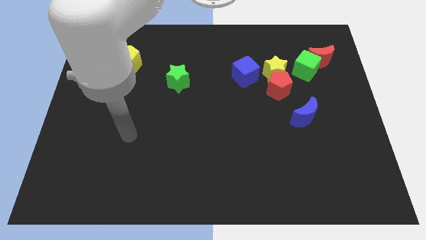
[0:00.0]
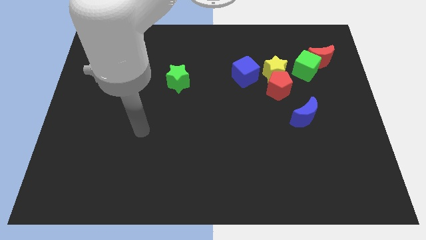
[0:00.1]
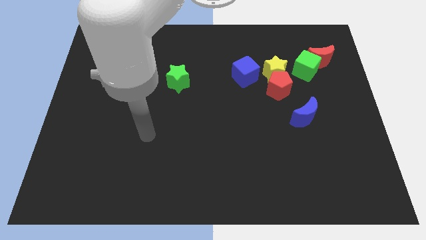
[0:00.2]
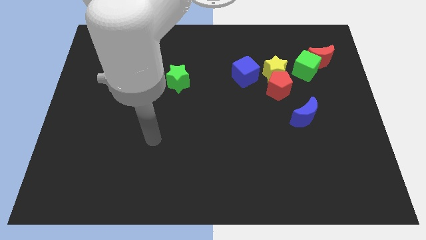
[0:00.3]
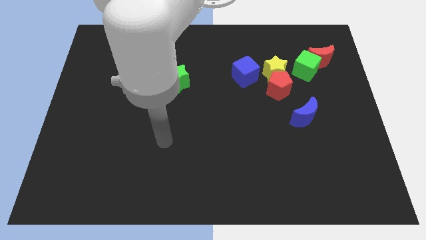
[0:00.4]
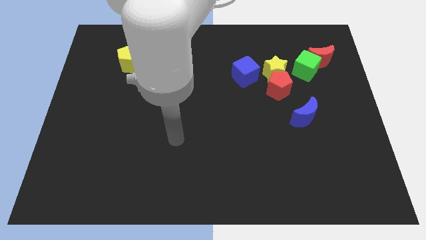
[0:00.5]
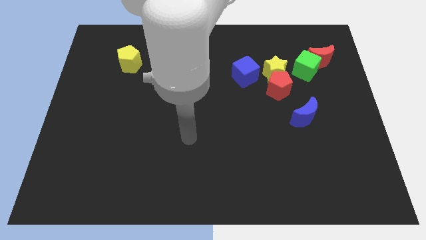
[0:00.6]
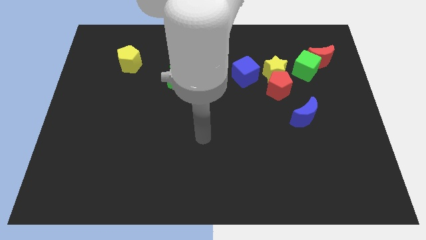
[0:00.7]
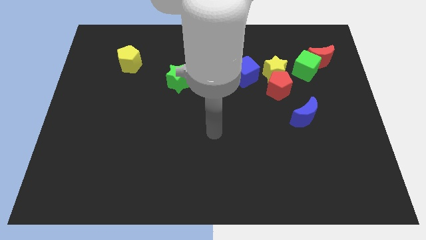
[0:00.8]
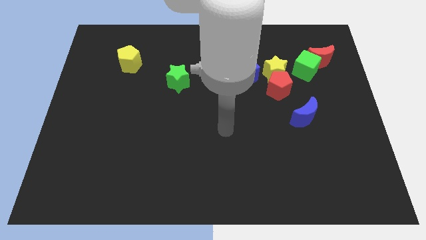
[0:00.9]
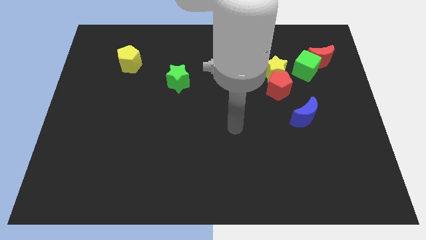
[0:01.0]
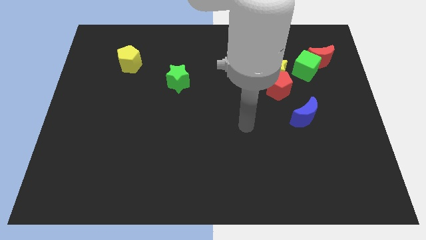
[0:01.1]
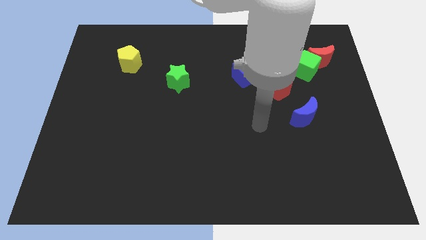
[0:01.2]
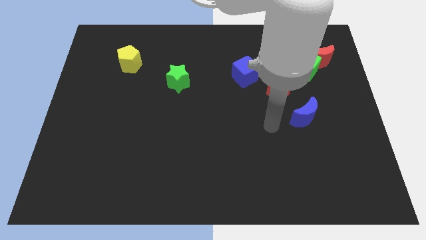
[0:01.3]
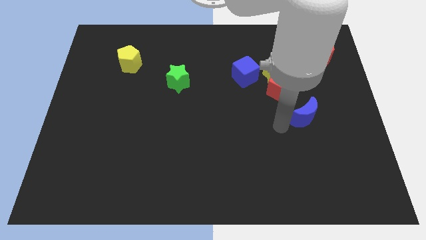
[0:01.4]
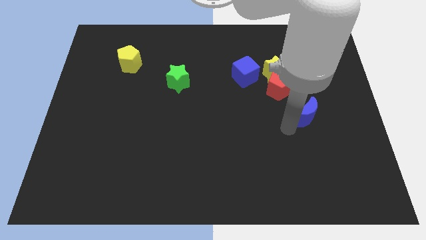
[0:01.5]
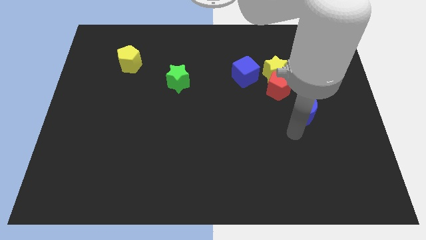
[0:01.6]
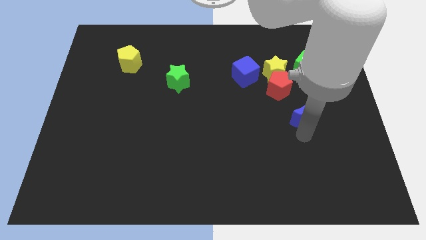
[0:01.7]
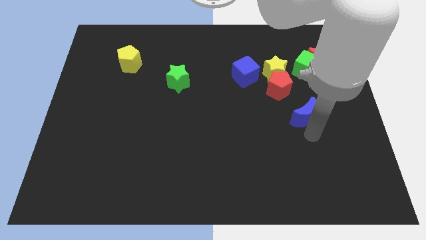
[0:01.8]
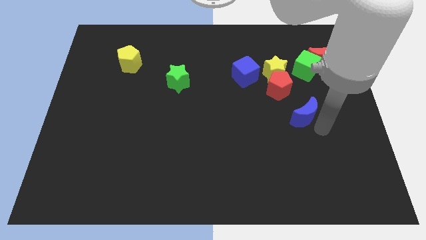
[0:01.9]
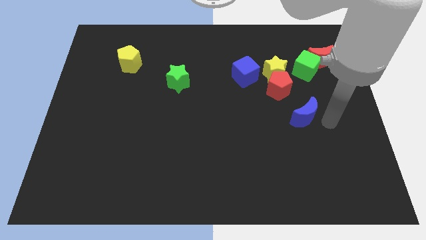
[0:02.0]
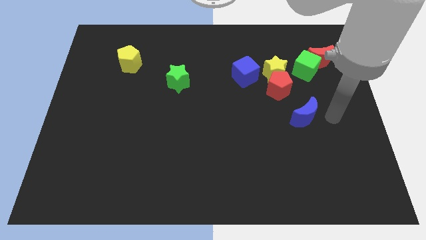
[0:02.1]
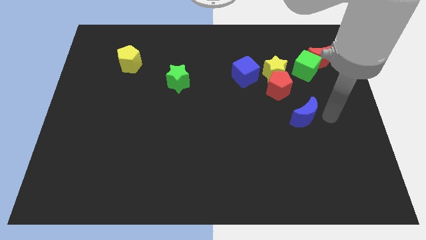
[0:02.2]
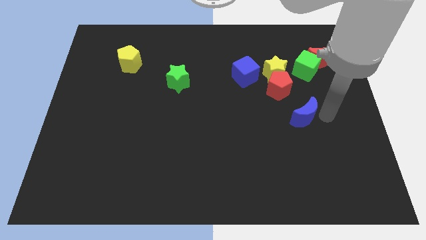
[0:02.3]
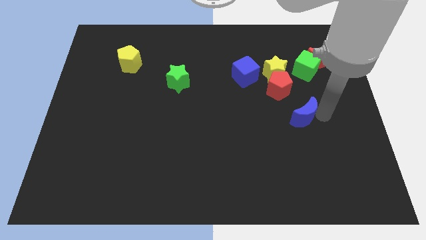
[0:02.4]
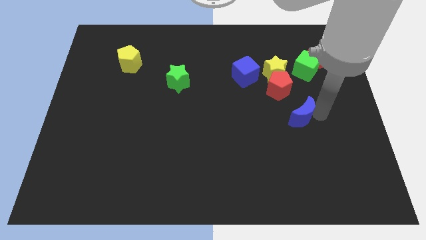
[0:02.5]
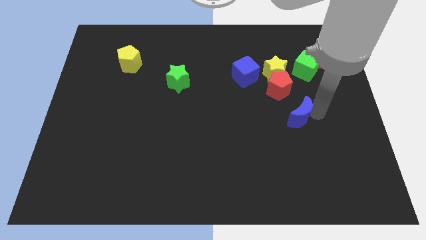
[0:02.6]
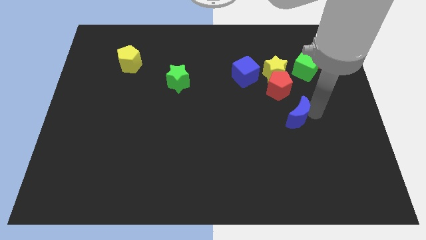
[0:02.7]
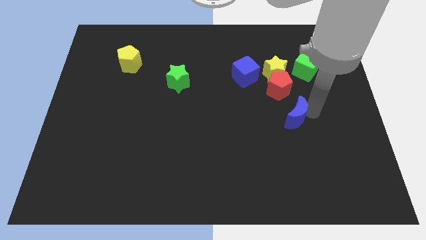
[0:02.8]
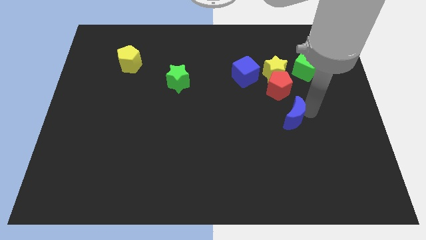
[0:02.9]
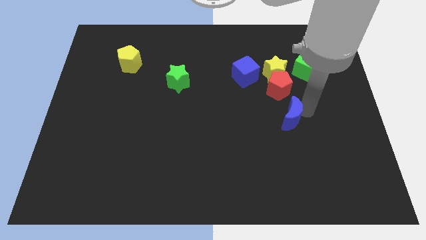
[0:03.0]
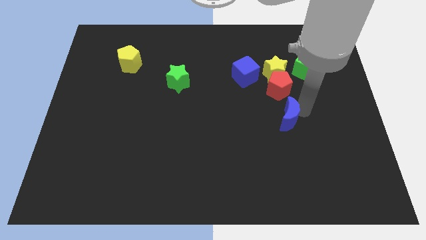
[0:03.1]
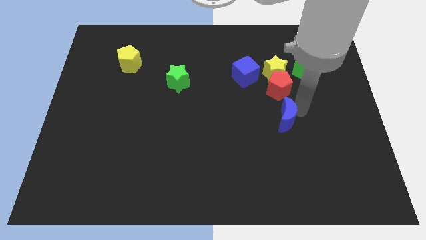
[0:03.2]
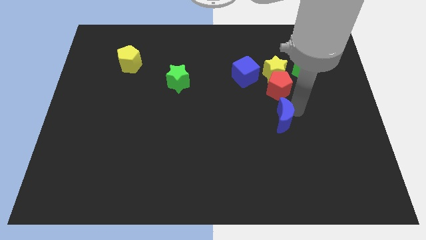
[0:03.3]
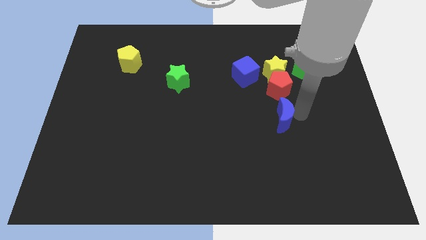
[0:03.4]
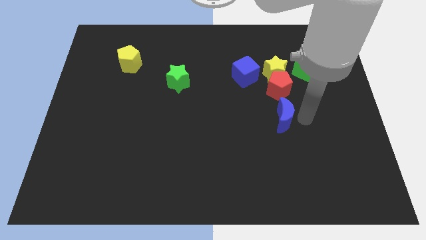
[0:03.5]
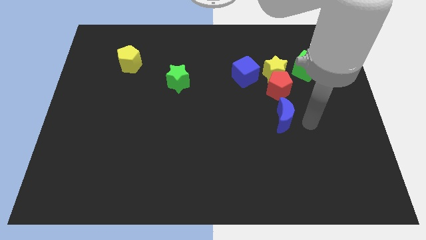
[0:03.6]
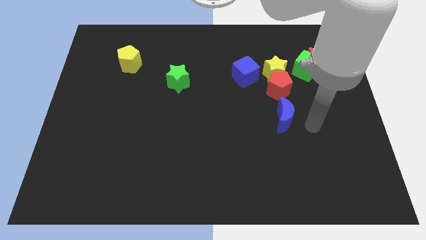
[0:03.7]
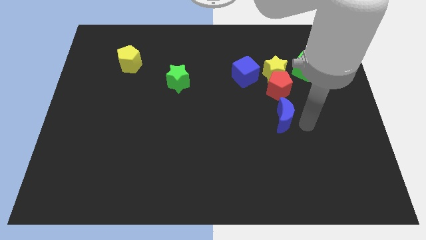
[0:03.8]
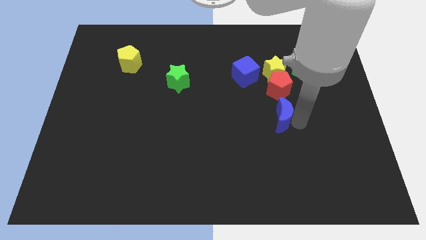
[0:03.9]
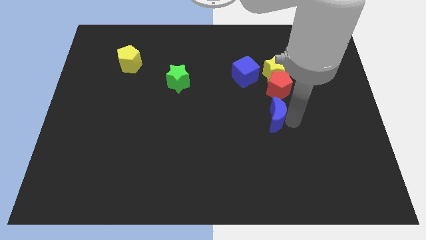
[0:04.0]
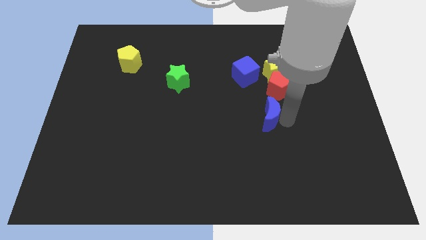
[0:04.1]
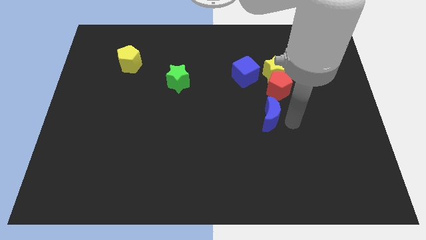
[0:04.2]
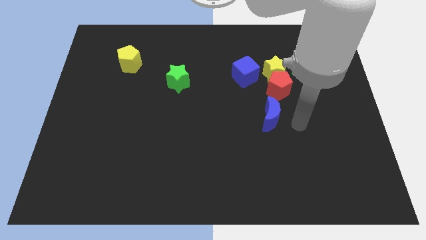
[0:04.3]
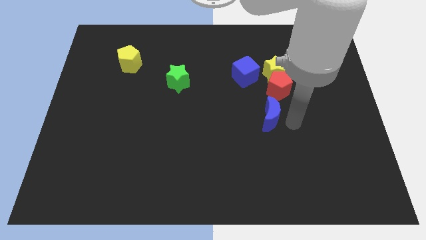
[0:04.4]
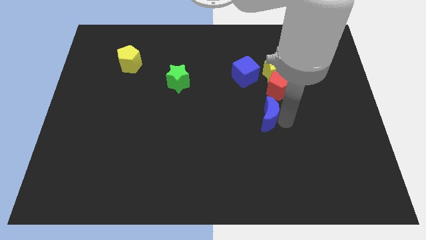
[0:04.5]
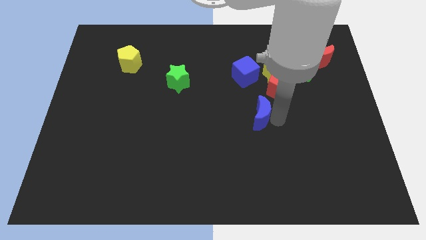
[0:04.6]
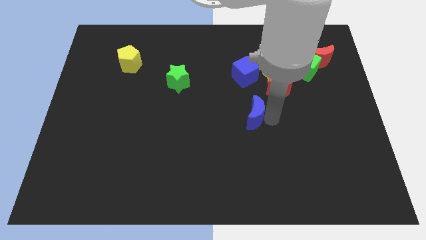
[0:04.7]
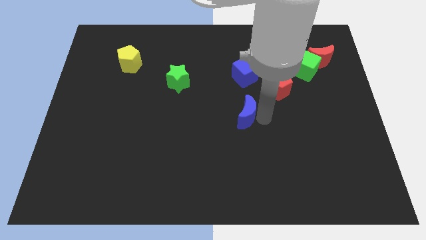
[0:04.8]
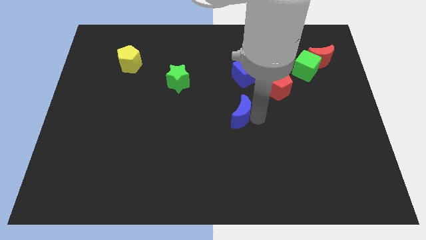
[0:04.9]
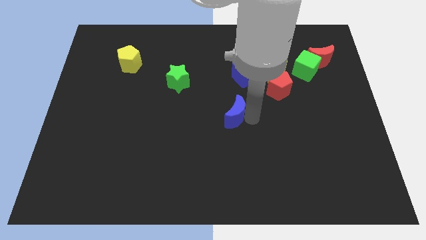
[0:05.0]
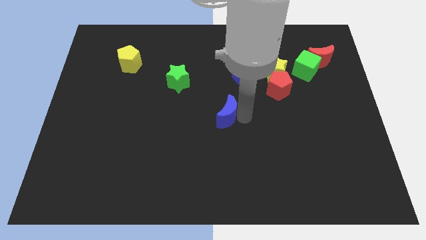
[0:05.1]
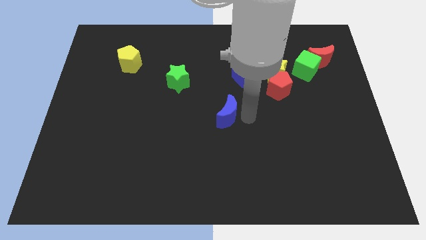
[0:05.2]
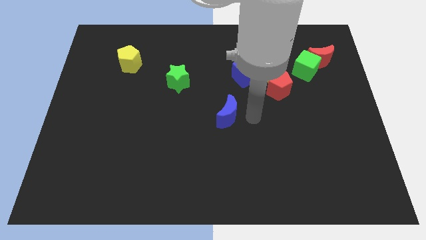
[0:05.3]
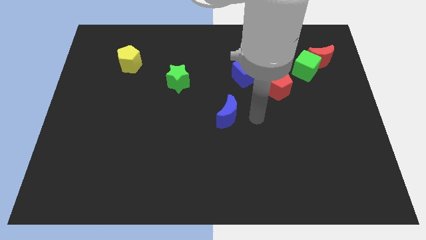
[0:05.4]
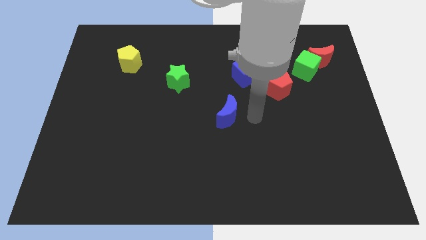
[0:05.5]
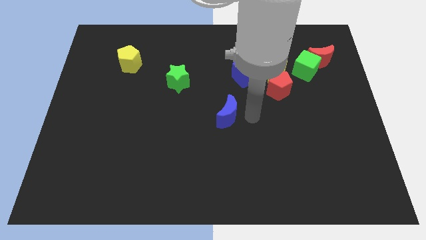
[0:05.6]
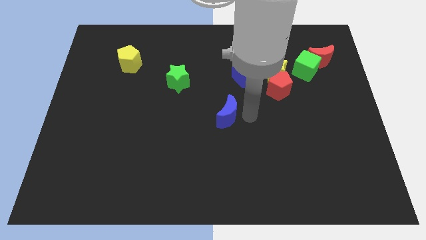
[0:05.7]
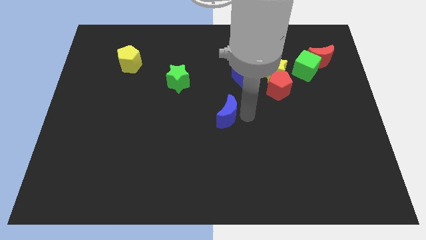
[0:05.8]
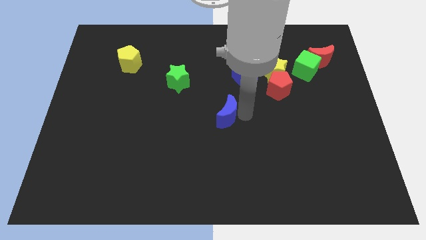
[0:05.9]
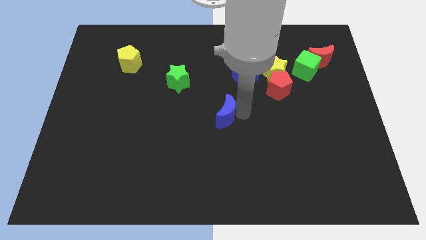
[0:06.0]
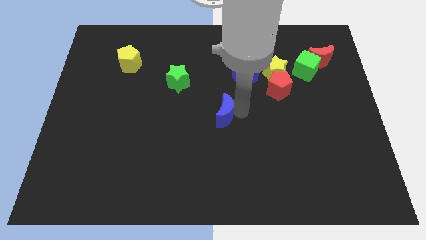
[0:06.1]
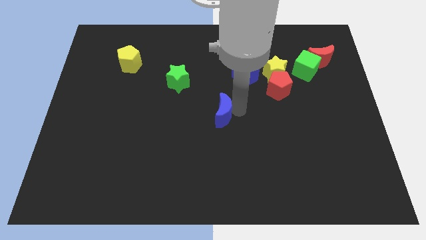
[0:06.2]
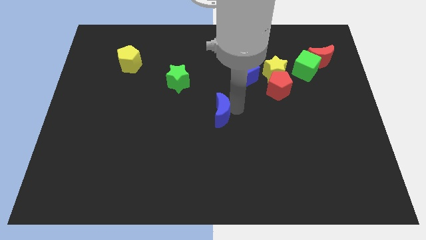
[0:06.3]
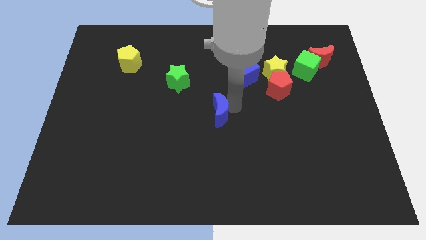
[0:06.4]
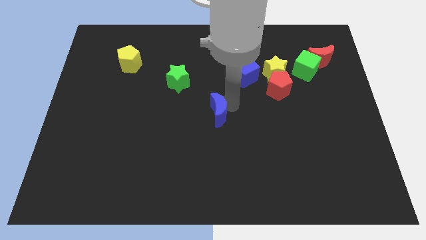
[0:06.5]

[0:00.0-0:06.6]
slide the blue moon to the left

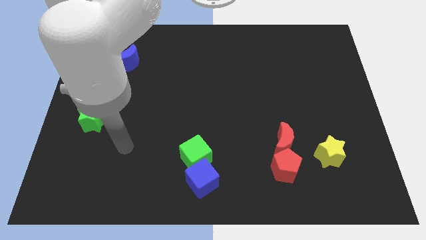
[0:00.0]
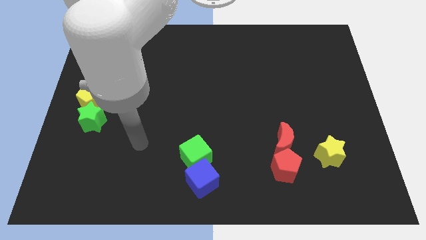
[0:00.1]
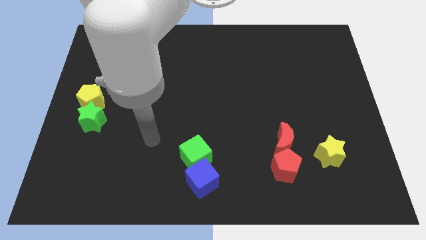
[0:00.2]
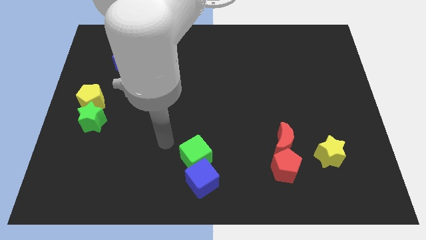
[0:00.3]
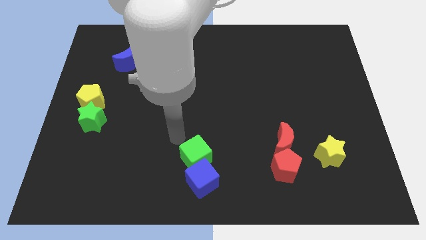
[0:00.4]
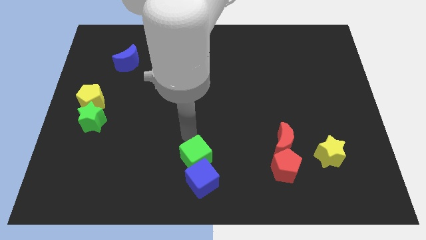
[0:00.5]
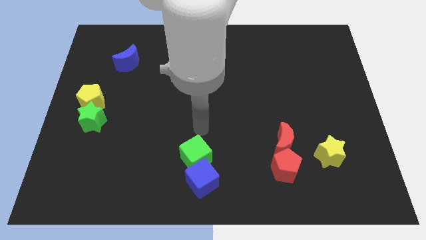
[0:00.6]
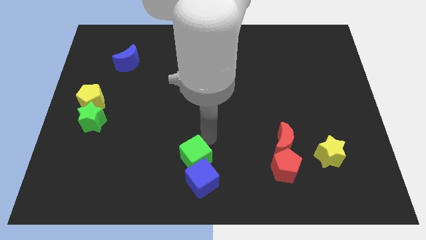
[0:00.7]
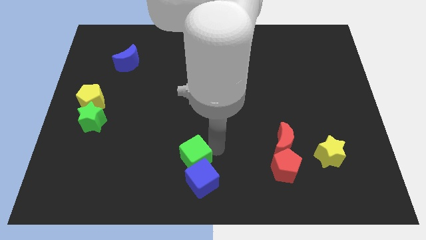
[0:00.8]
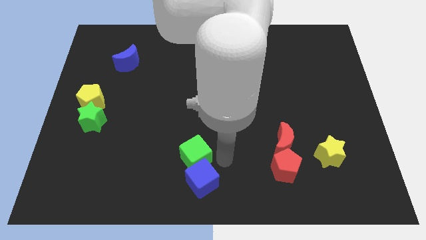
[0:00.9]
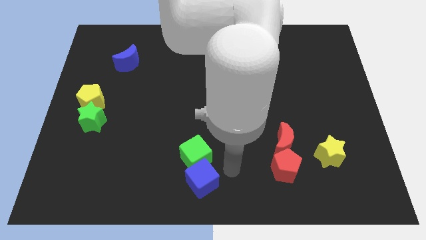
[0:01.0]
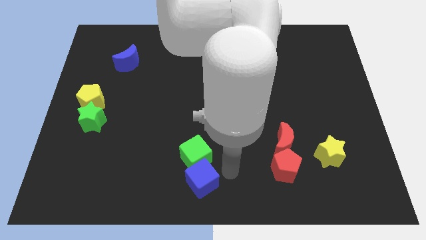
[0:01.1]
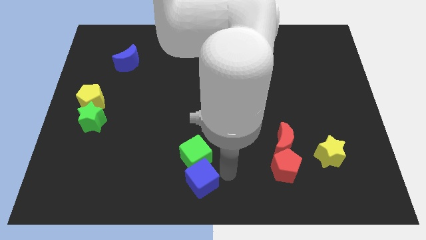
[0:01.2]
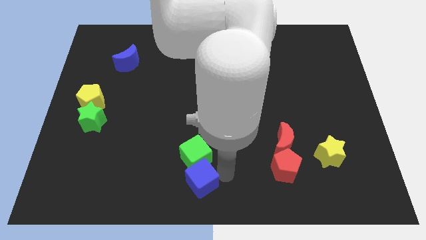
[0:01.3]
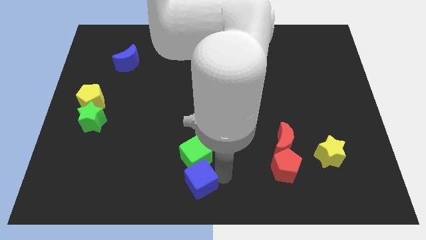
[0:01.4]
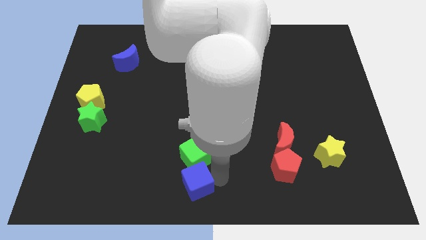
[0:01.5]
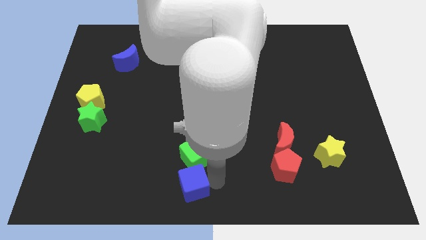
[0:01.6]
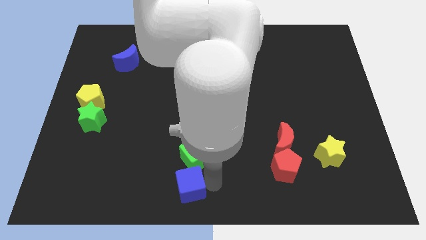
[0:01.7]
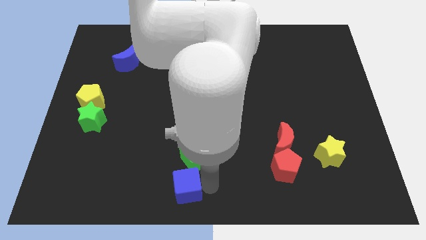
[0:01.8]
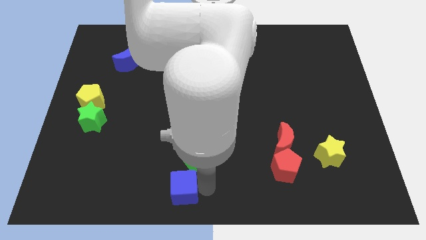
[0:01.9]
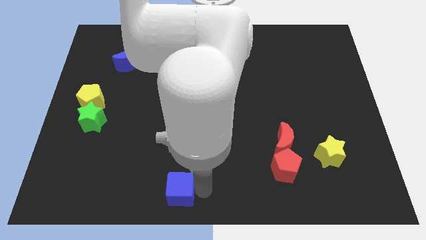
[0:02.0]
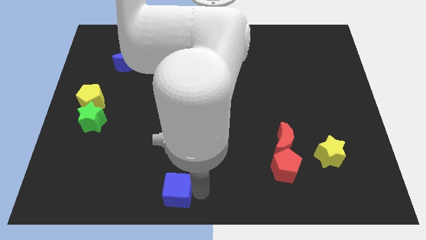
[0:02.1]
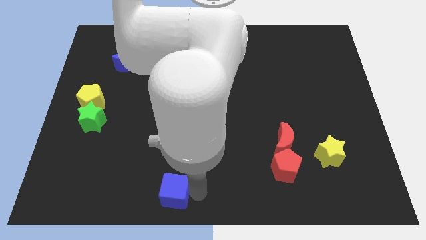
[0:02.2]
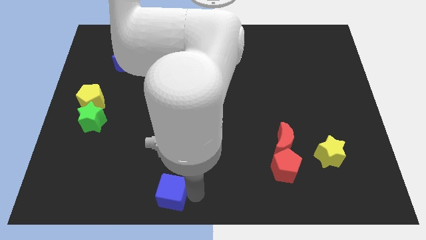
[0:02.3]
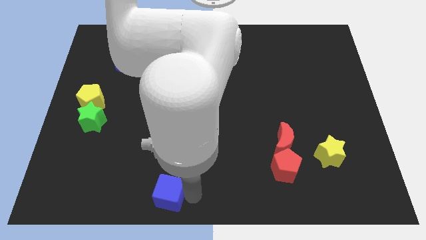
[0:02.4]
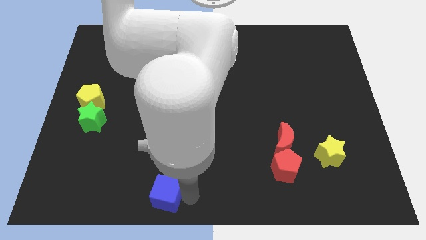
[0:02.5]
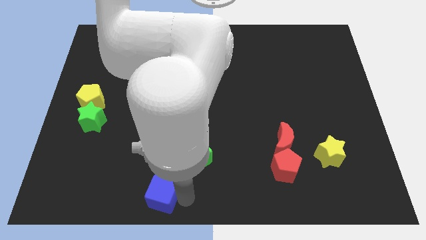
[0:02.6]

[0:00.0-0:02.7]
move the blue cube a little bit to the left
